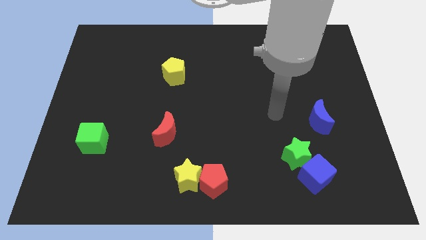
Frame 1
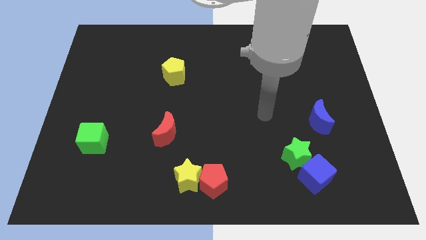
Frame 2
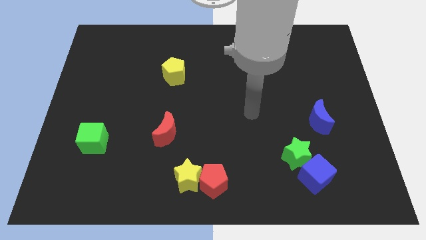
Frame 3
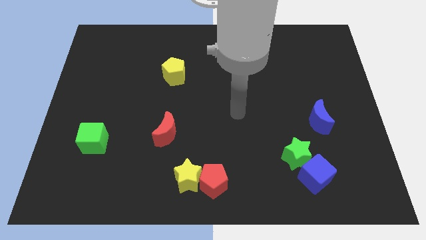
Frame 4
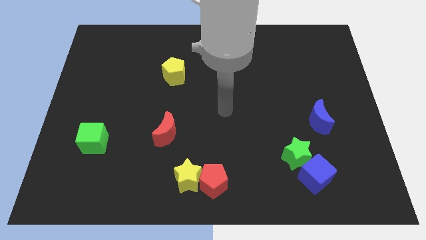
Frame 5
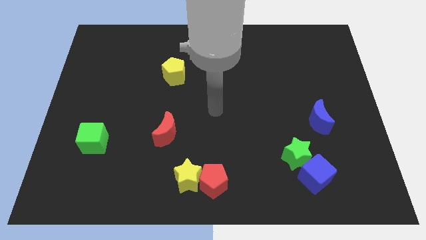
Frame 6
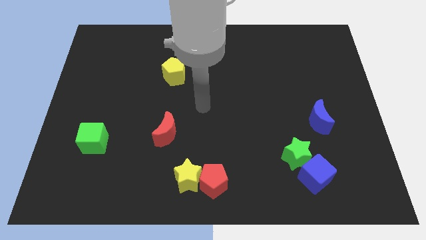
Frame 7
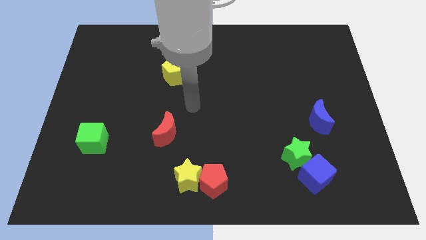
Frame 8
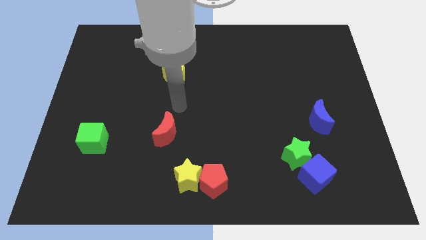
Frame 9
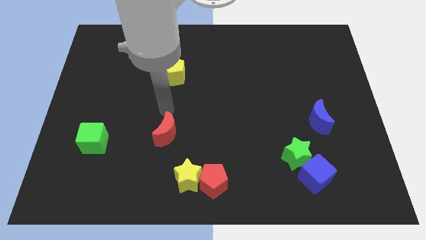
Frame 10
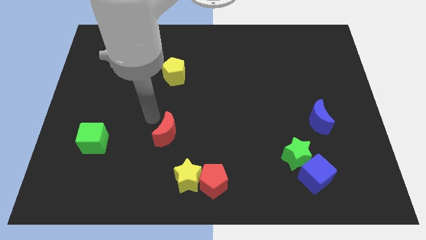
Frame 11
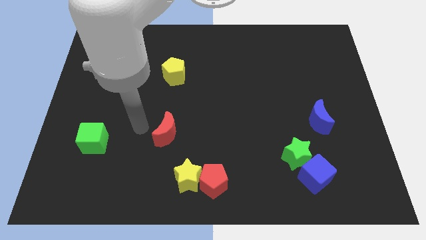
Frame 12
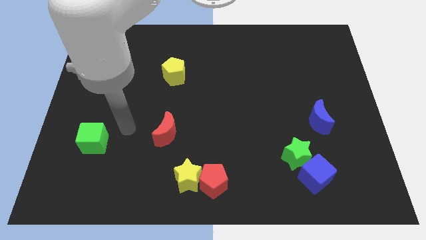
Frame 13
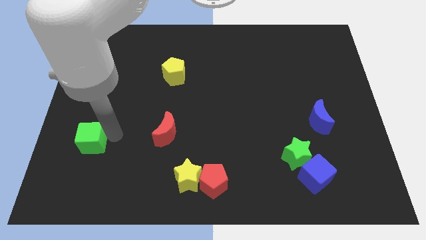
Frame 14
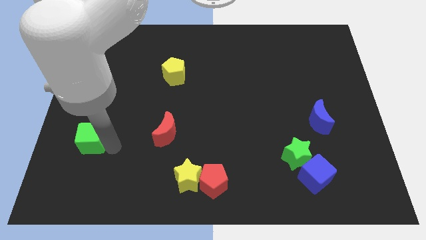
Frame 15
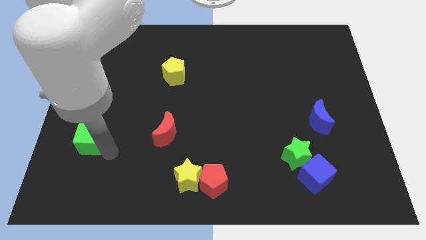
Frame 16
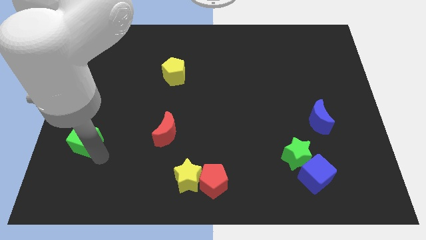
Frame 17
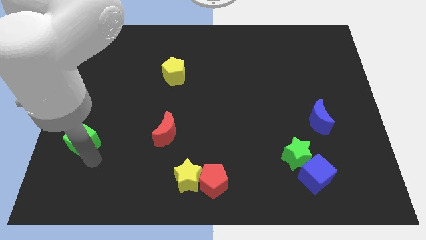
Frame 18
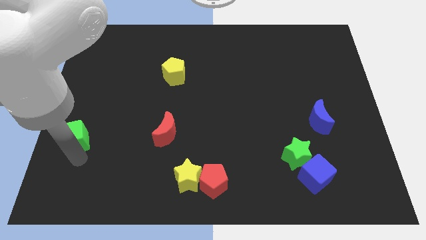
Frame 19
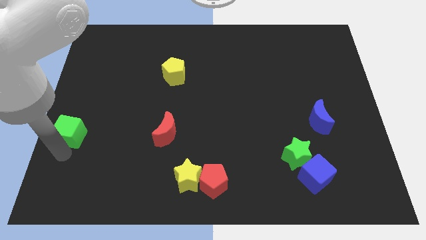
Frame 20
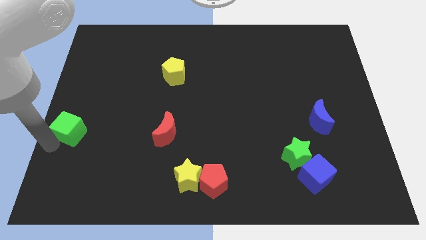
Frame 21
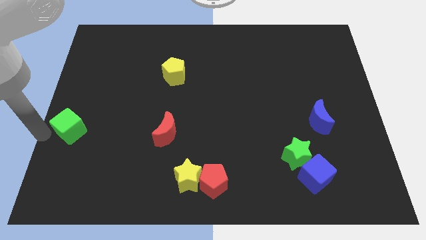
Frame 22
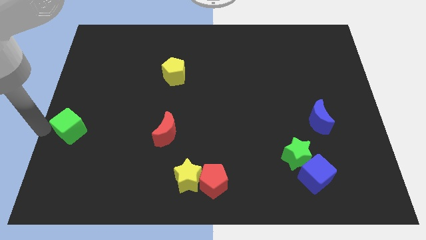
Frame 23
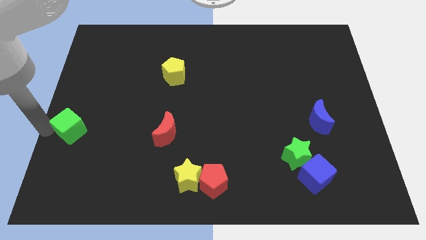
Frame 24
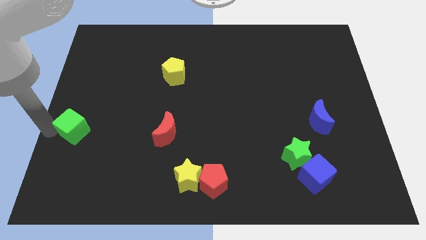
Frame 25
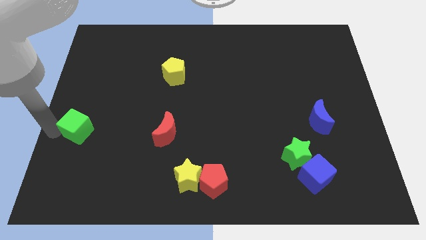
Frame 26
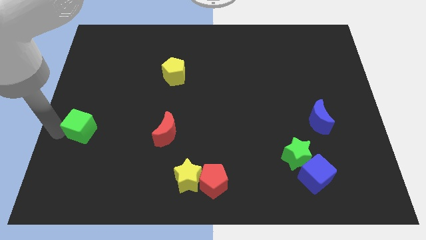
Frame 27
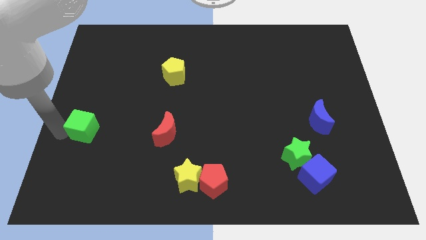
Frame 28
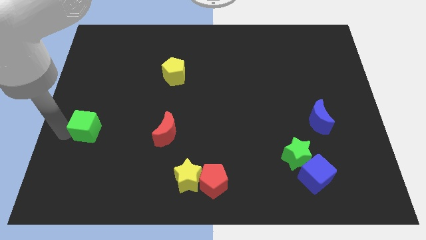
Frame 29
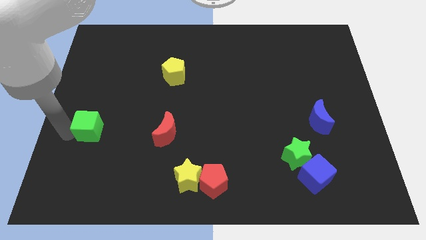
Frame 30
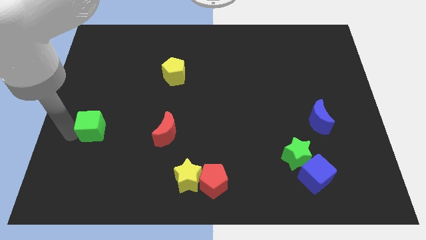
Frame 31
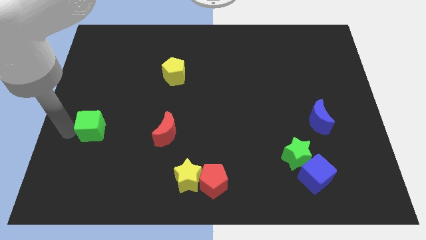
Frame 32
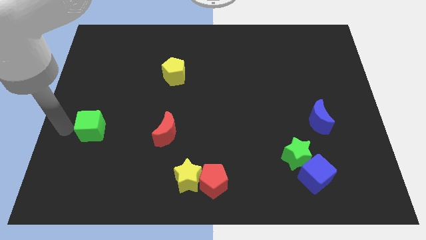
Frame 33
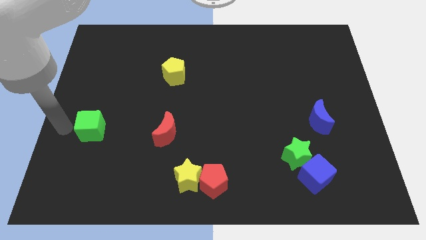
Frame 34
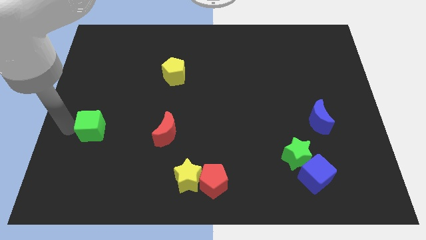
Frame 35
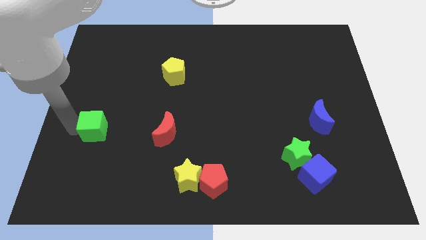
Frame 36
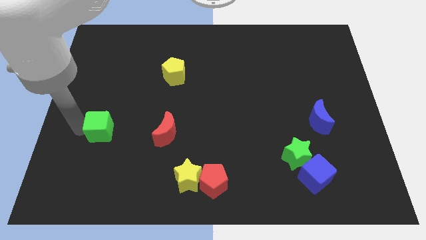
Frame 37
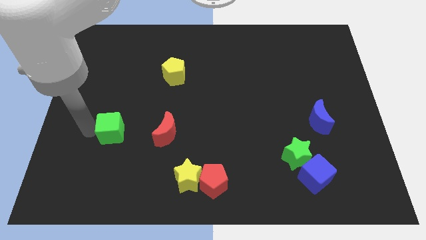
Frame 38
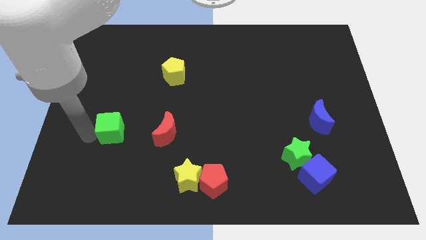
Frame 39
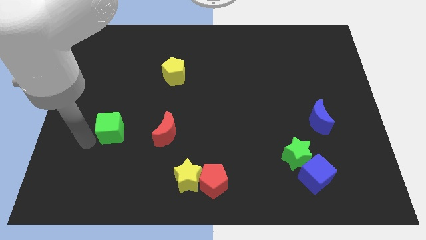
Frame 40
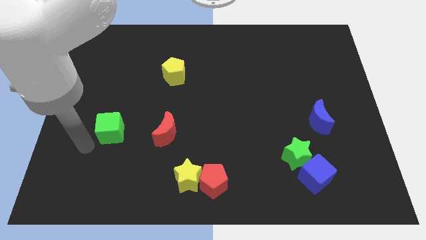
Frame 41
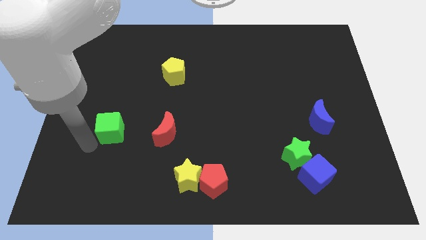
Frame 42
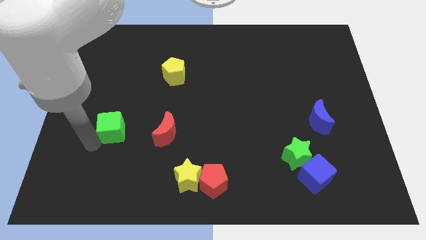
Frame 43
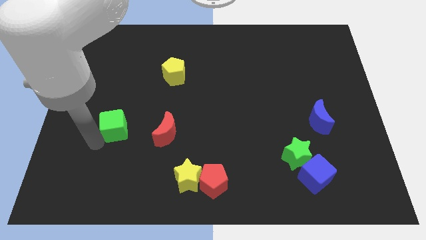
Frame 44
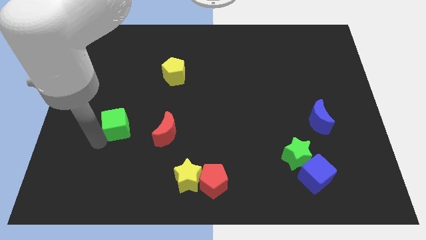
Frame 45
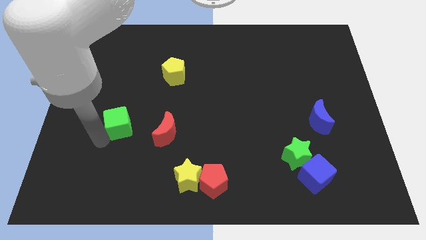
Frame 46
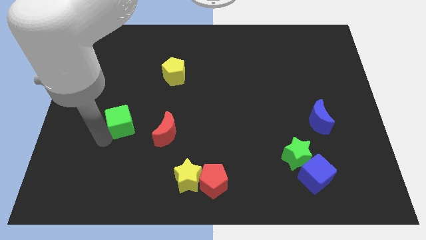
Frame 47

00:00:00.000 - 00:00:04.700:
slide the green cube somewhat upwards and then right

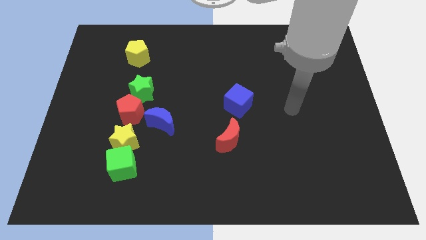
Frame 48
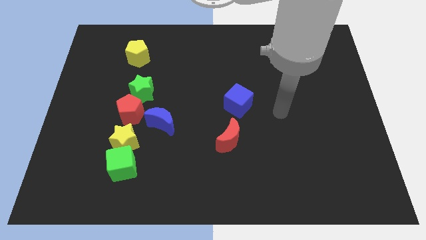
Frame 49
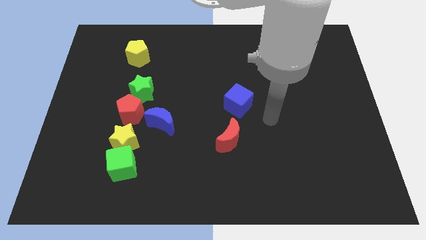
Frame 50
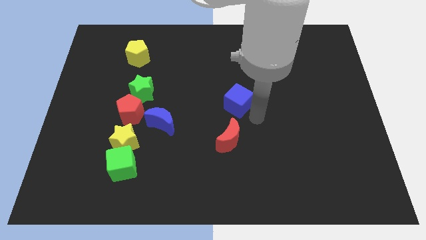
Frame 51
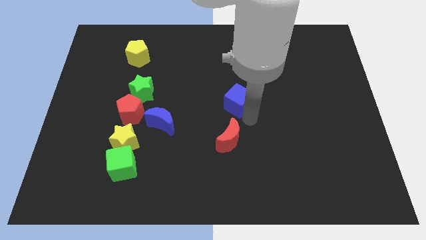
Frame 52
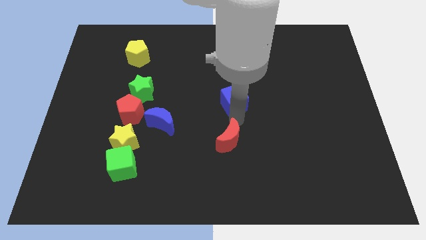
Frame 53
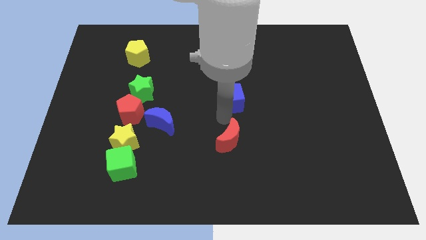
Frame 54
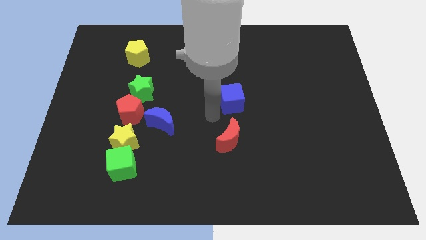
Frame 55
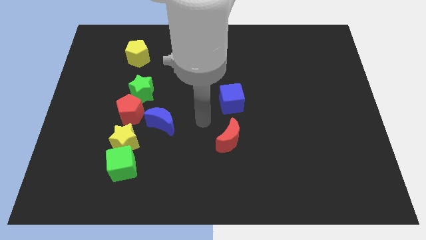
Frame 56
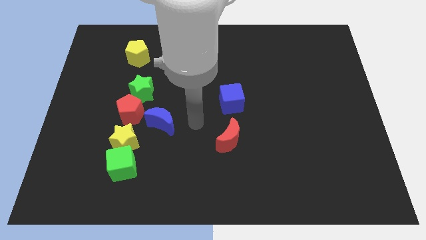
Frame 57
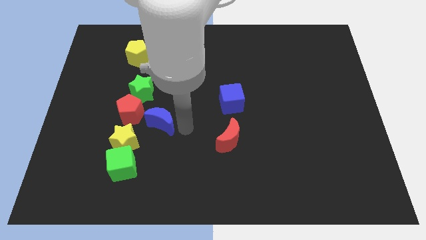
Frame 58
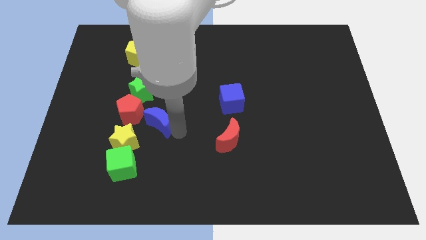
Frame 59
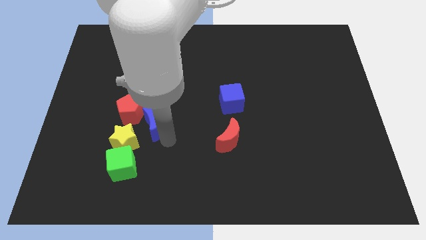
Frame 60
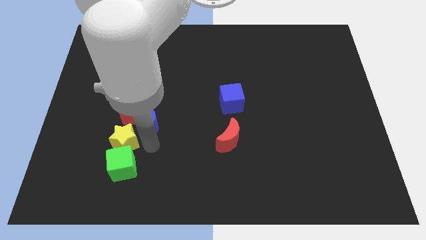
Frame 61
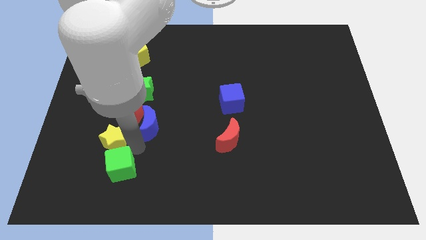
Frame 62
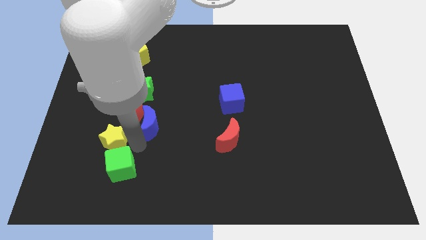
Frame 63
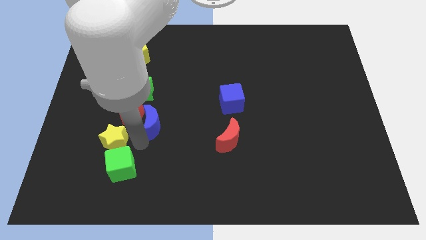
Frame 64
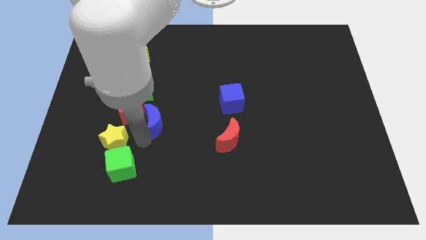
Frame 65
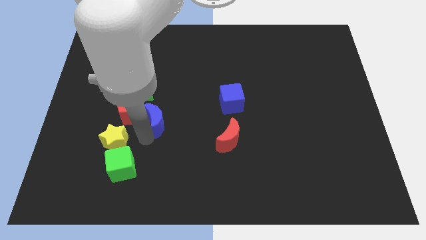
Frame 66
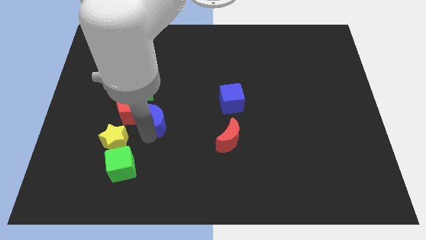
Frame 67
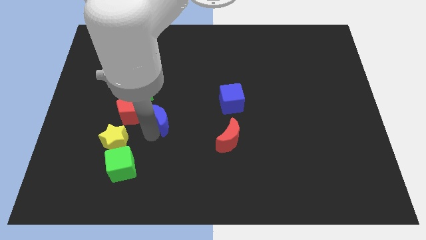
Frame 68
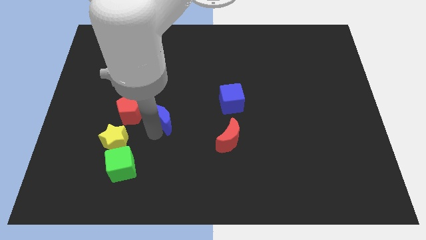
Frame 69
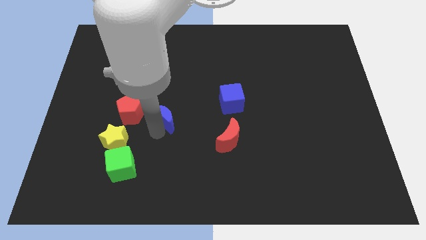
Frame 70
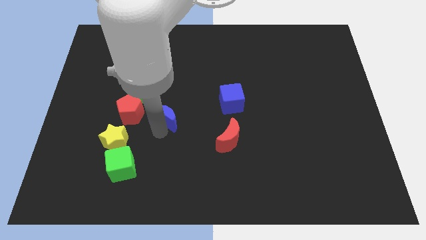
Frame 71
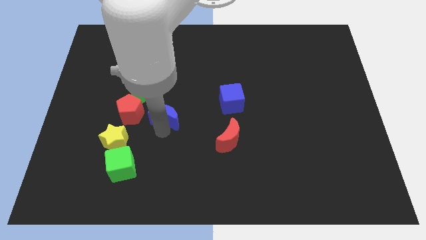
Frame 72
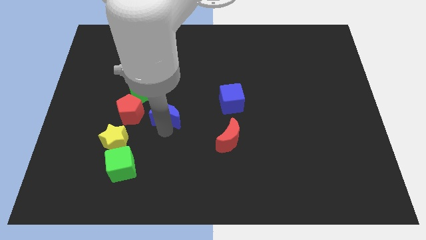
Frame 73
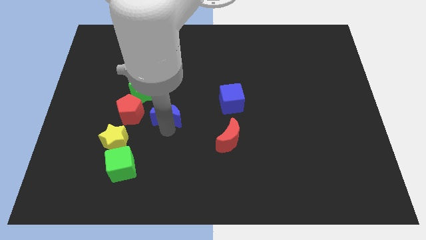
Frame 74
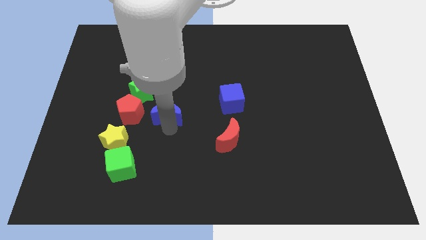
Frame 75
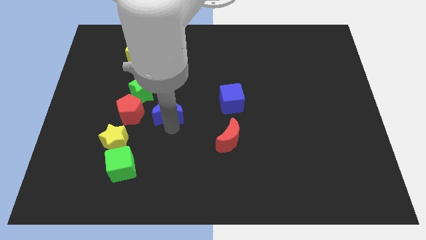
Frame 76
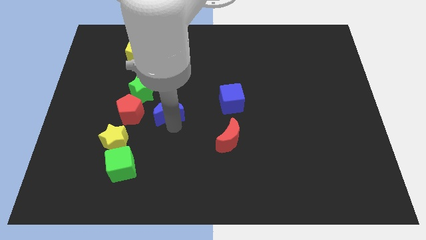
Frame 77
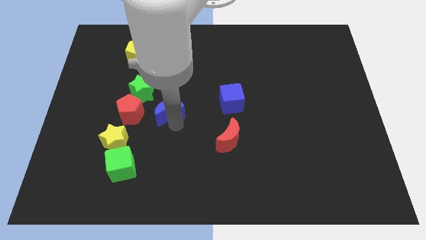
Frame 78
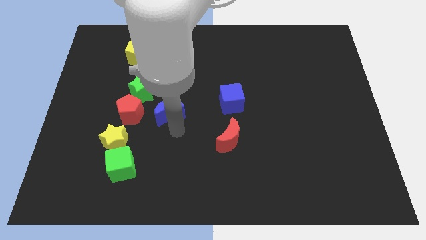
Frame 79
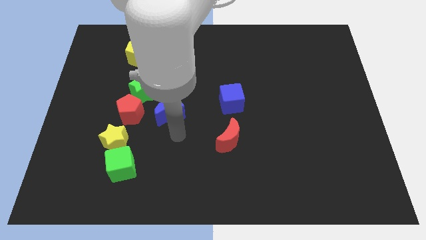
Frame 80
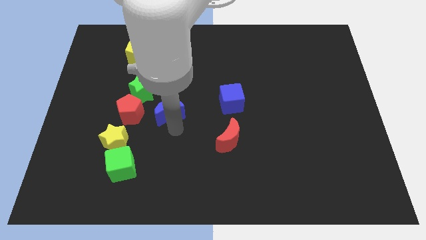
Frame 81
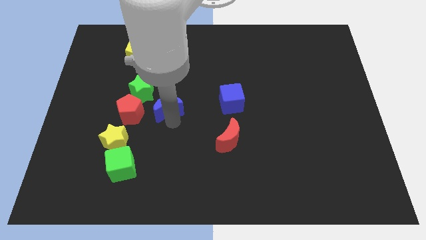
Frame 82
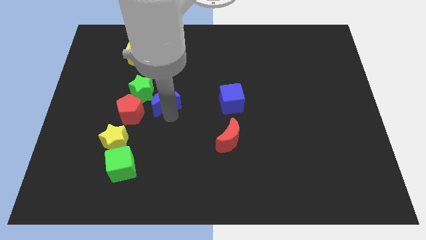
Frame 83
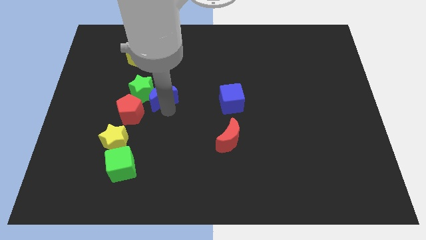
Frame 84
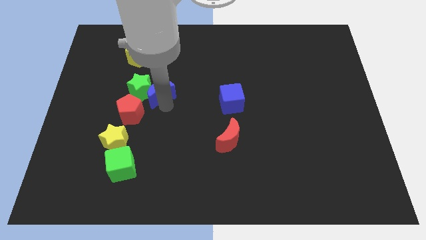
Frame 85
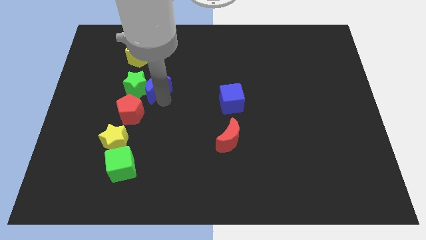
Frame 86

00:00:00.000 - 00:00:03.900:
slightly push the blue moon upwards and left diagonally
